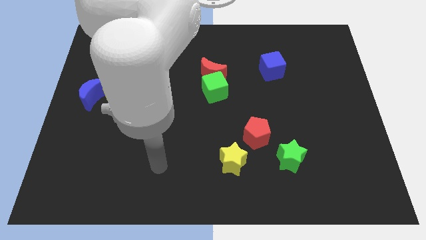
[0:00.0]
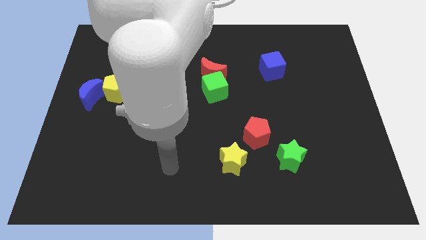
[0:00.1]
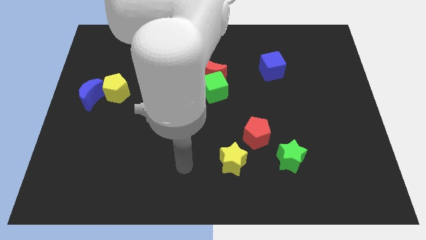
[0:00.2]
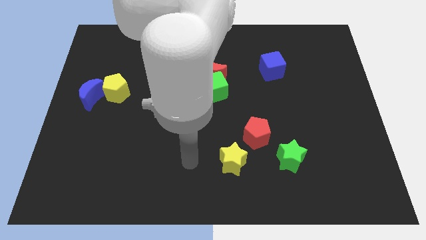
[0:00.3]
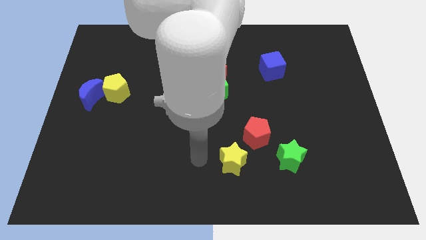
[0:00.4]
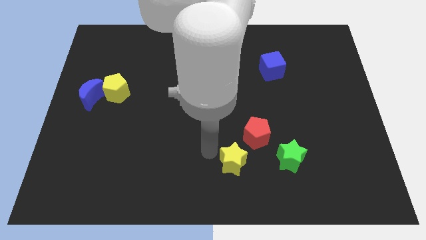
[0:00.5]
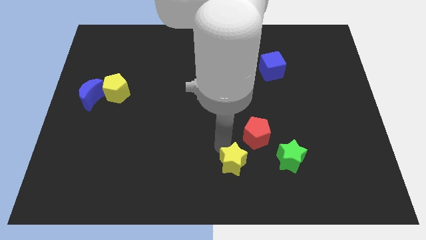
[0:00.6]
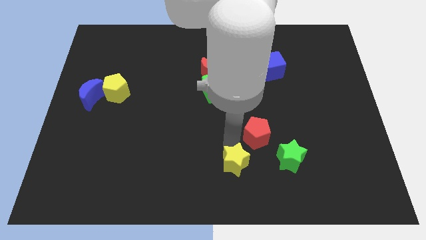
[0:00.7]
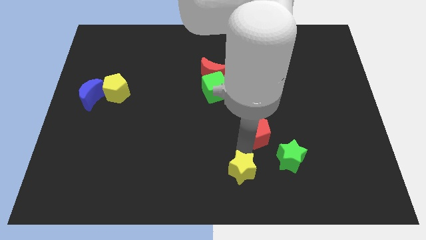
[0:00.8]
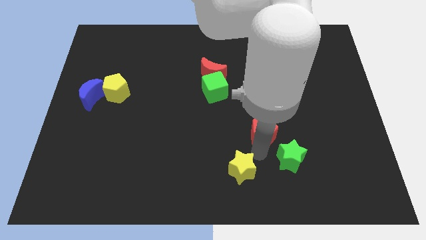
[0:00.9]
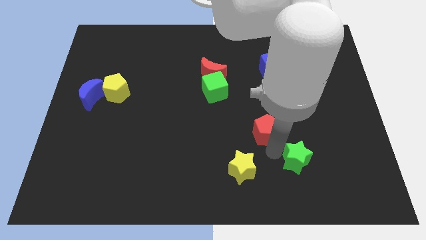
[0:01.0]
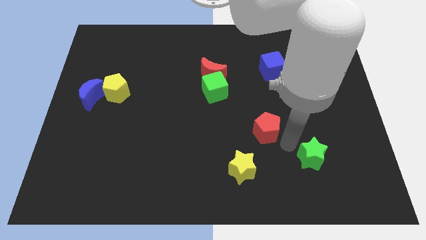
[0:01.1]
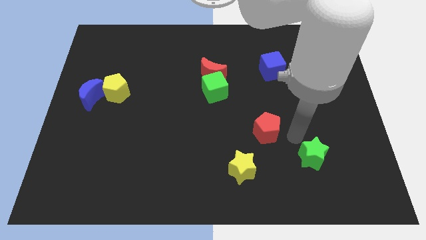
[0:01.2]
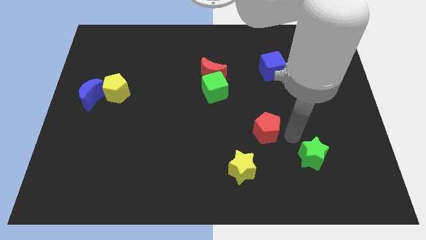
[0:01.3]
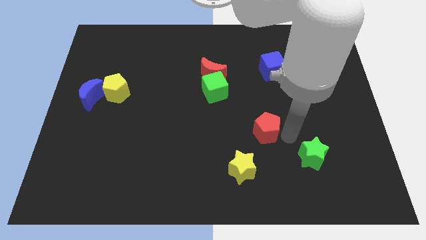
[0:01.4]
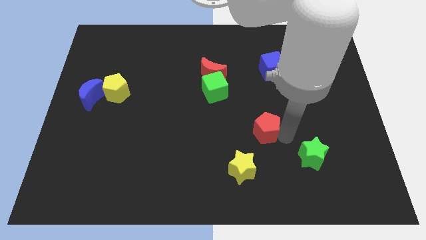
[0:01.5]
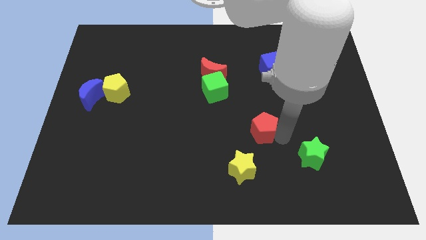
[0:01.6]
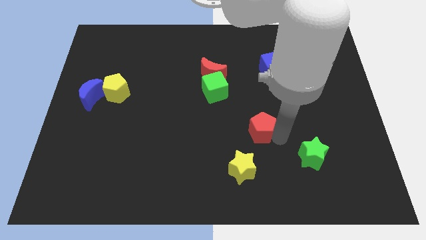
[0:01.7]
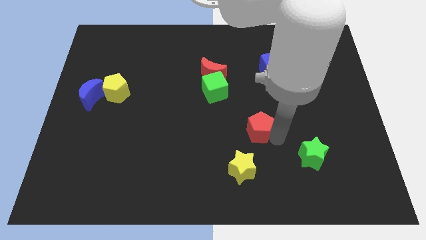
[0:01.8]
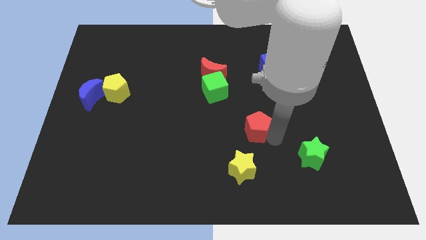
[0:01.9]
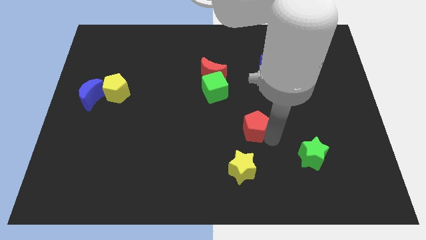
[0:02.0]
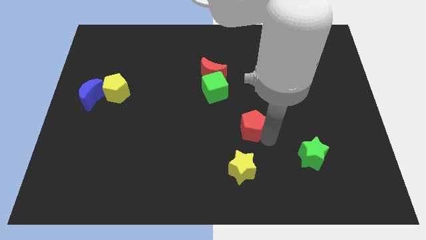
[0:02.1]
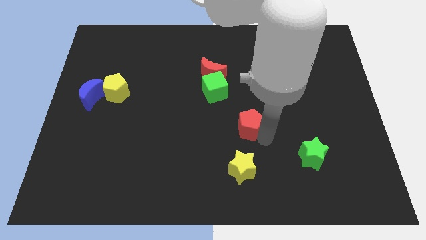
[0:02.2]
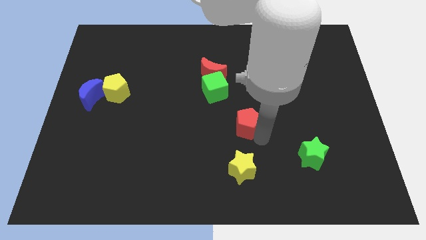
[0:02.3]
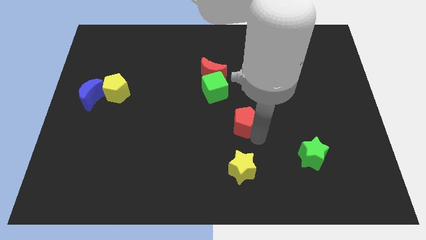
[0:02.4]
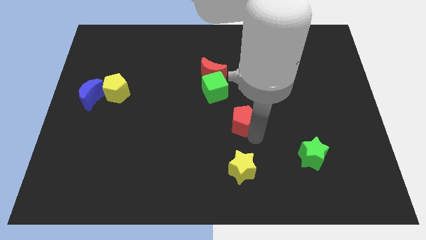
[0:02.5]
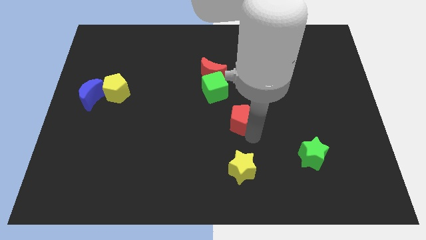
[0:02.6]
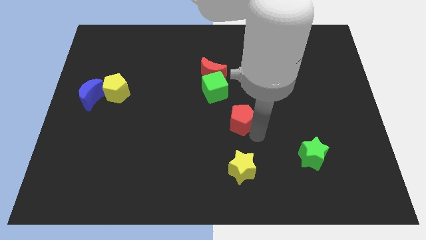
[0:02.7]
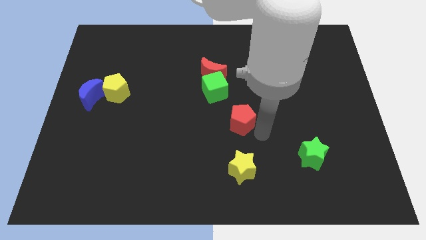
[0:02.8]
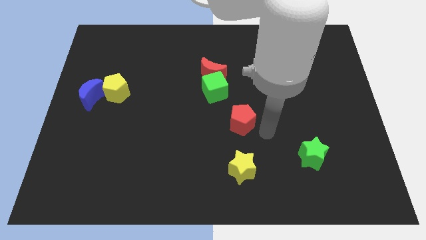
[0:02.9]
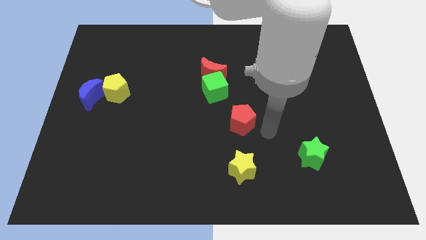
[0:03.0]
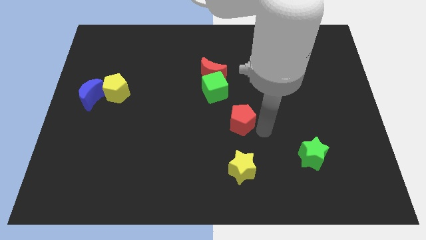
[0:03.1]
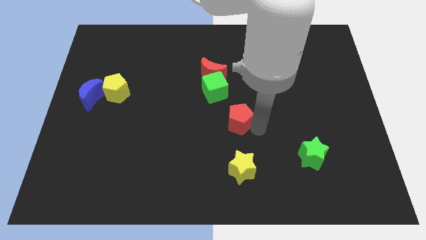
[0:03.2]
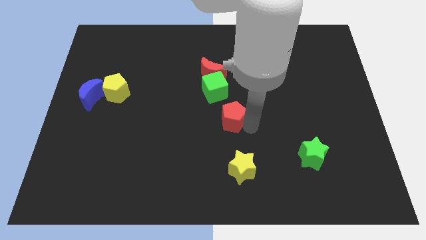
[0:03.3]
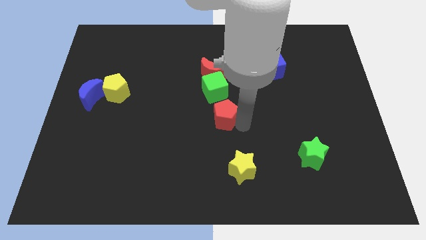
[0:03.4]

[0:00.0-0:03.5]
slightly push the red pentagon up and to the left

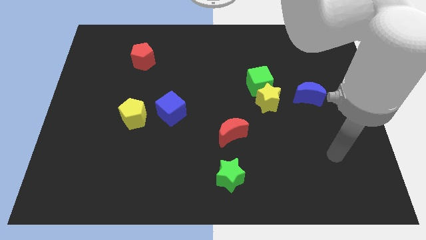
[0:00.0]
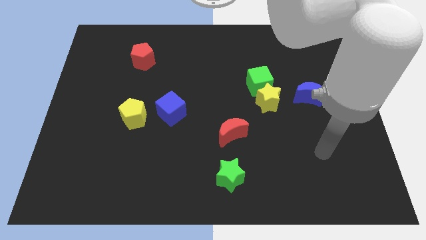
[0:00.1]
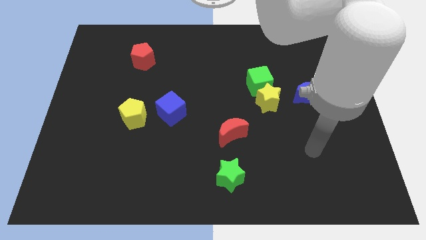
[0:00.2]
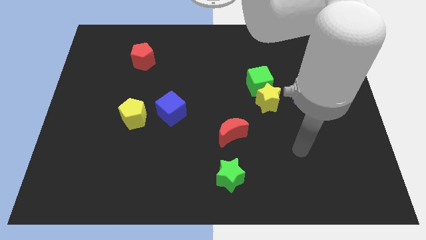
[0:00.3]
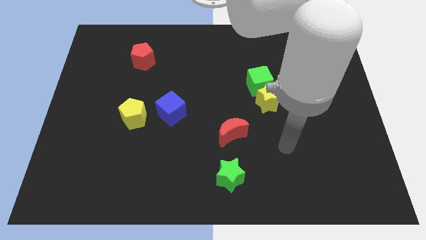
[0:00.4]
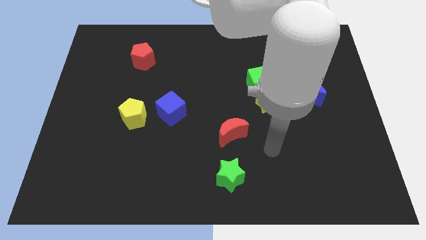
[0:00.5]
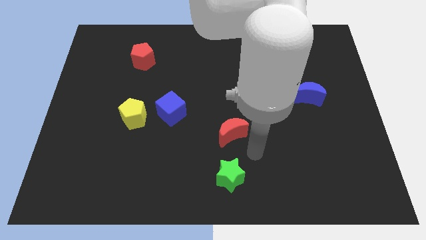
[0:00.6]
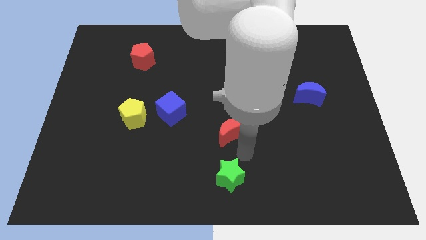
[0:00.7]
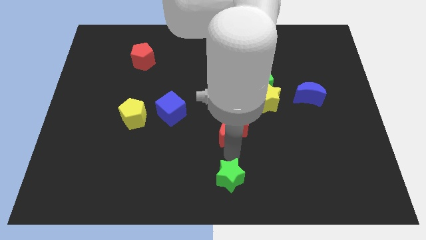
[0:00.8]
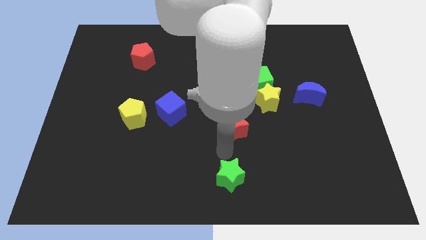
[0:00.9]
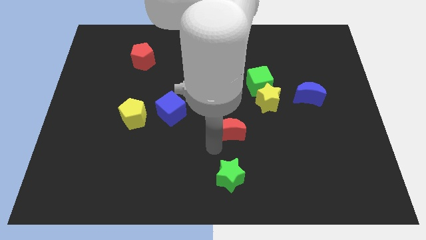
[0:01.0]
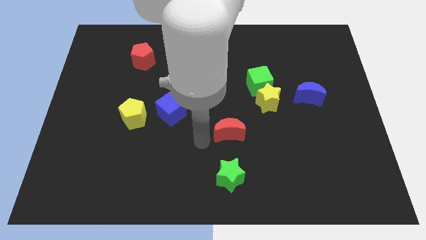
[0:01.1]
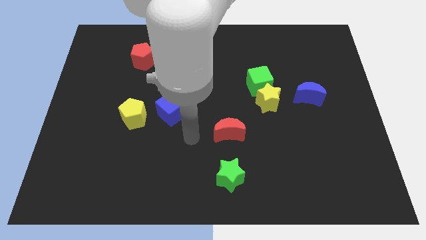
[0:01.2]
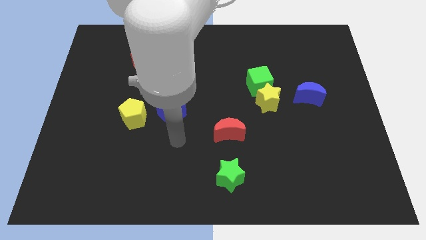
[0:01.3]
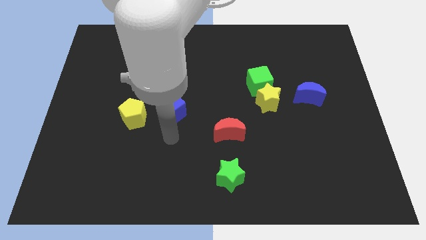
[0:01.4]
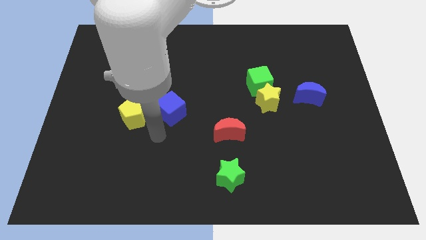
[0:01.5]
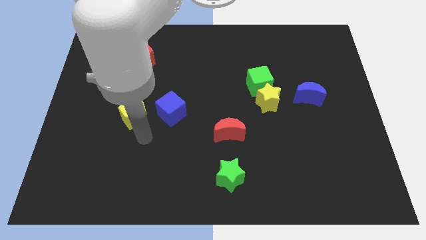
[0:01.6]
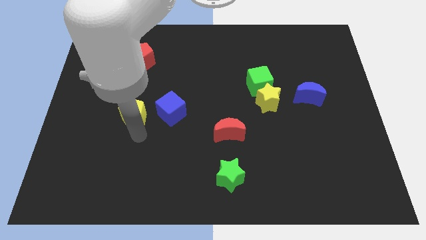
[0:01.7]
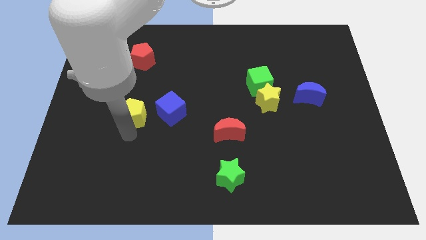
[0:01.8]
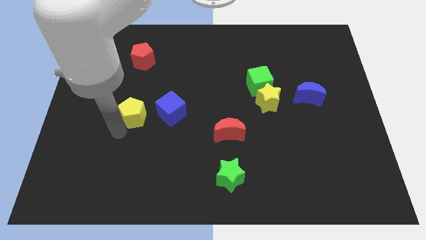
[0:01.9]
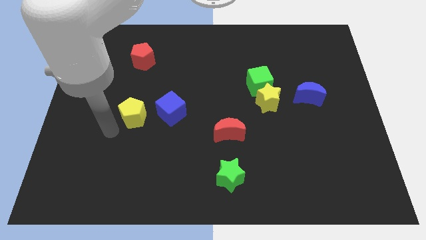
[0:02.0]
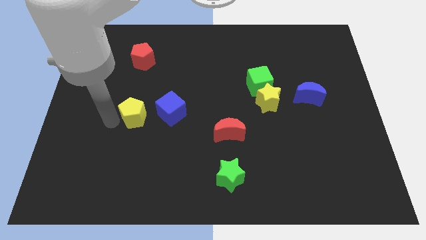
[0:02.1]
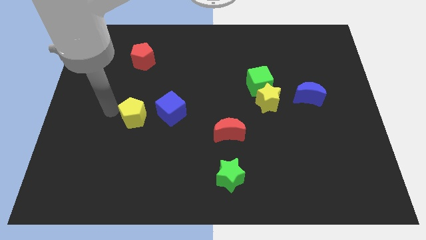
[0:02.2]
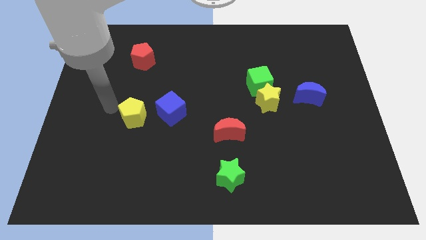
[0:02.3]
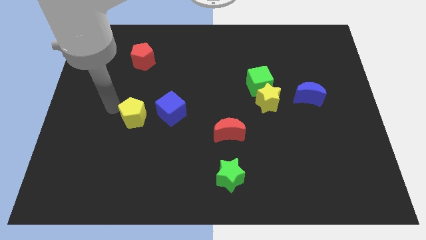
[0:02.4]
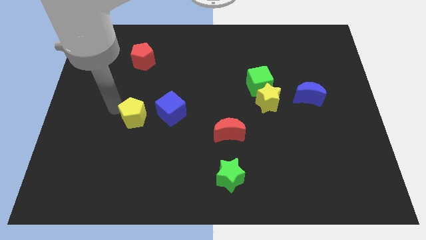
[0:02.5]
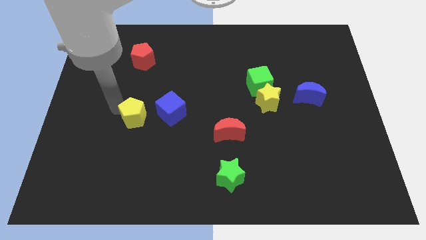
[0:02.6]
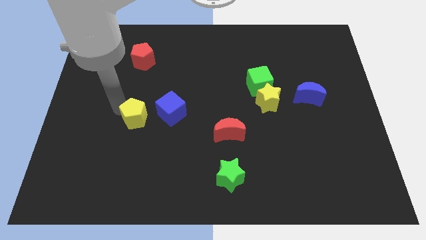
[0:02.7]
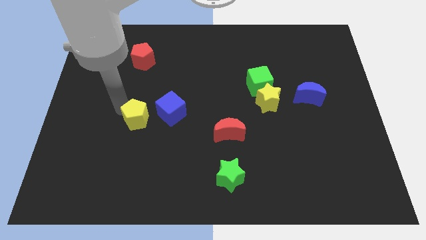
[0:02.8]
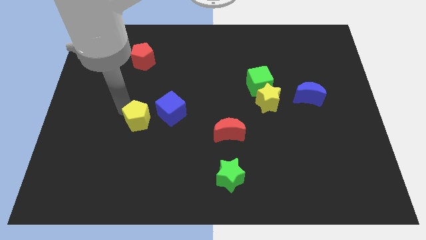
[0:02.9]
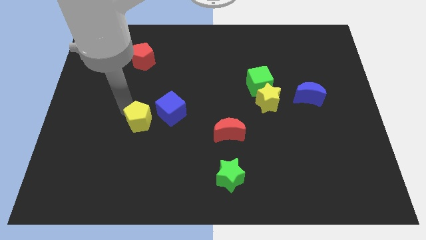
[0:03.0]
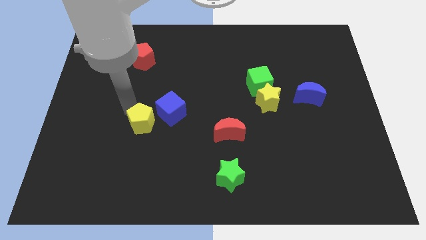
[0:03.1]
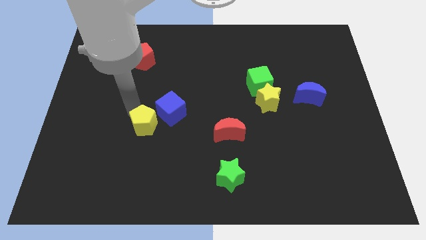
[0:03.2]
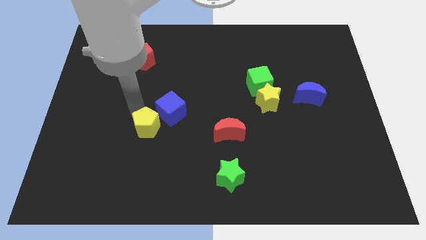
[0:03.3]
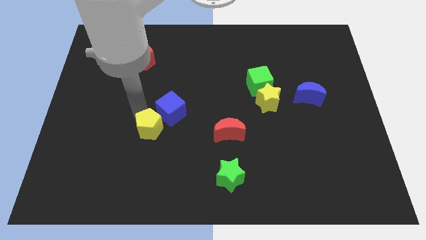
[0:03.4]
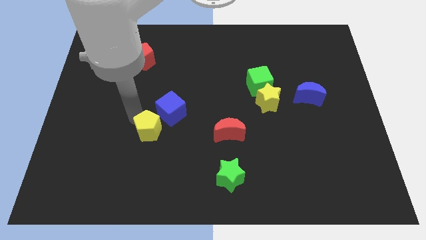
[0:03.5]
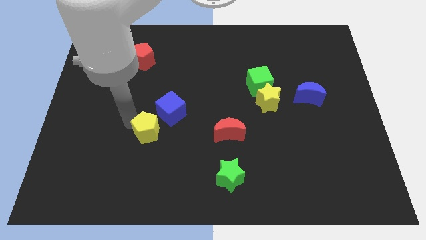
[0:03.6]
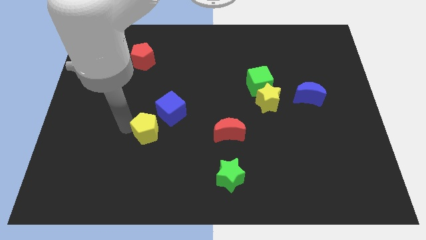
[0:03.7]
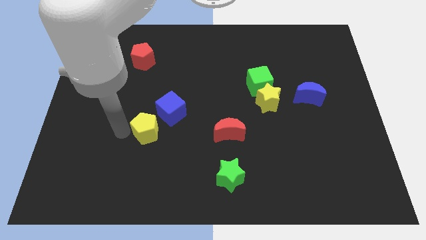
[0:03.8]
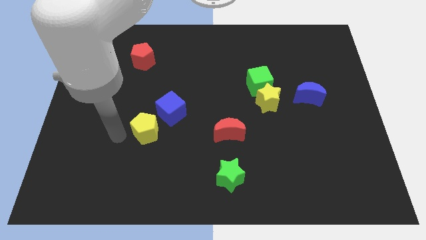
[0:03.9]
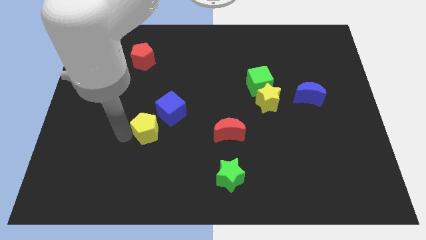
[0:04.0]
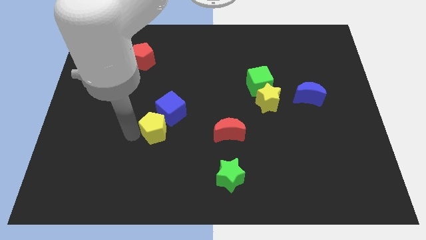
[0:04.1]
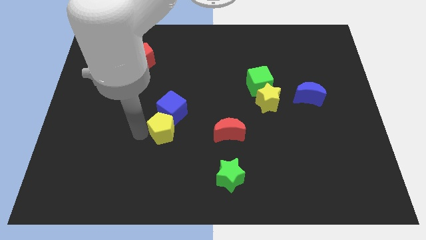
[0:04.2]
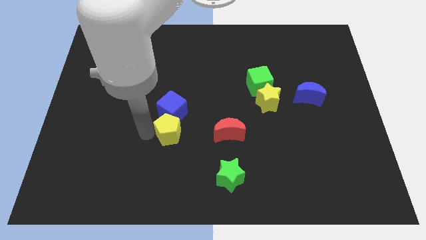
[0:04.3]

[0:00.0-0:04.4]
slide the yellow pentagon slightly to the right

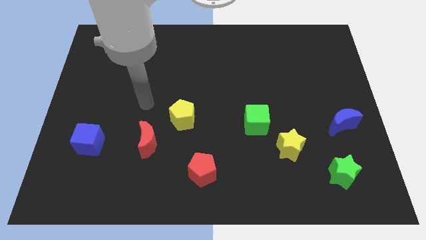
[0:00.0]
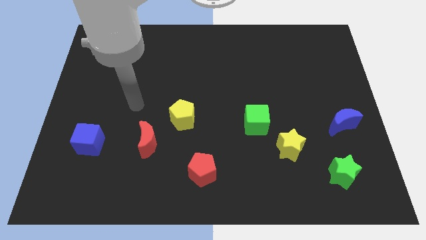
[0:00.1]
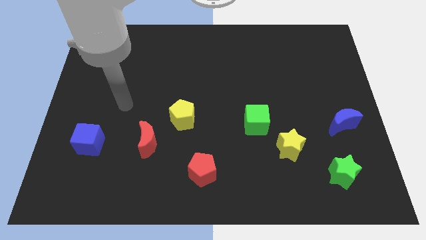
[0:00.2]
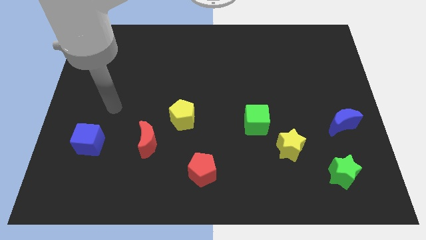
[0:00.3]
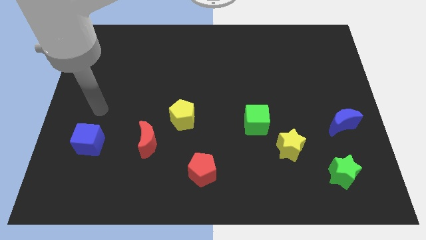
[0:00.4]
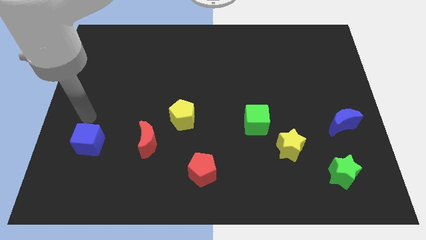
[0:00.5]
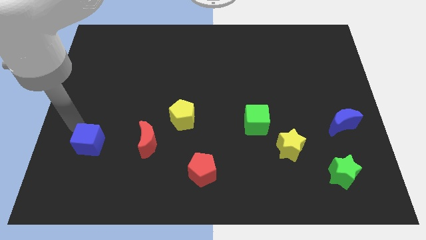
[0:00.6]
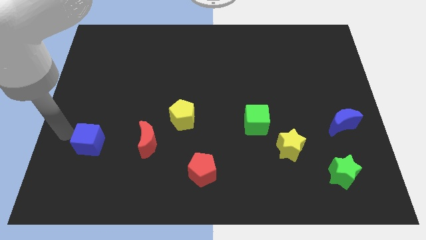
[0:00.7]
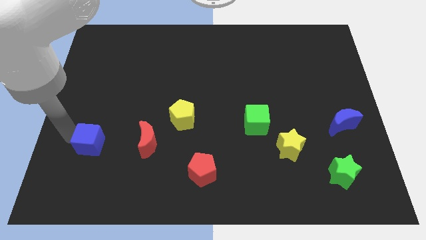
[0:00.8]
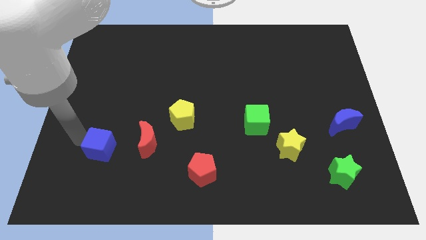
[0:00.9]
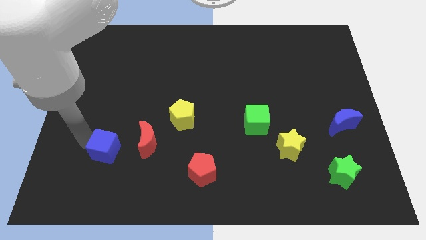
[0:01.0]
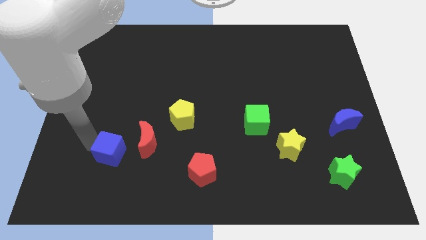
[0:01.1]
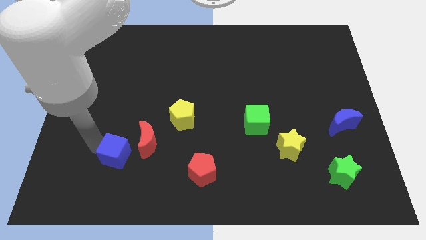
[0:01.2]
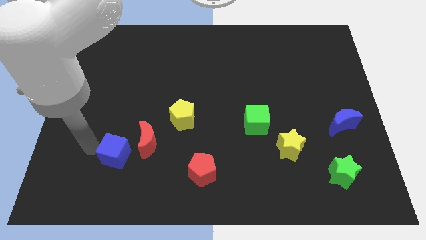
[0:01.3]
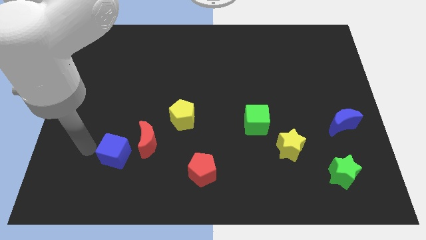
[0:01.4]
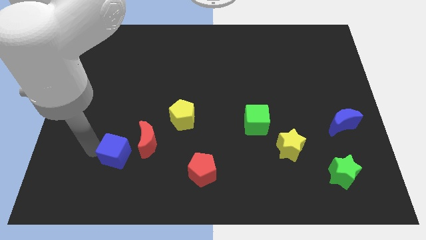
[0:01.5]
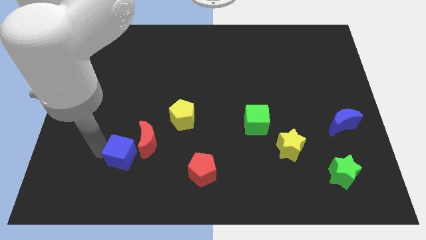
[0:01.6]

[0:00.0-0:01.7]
slide the blue cube right a bit
